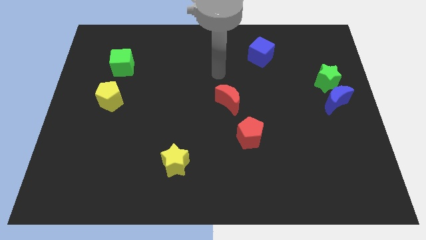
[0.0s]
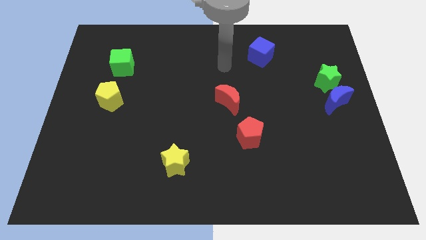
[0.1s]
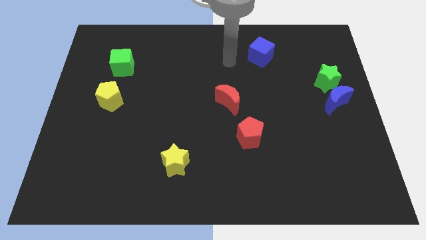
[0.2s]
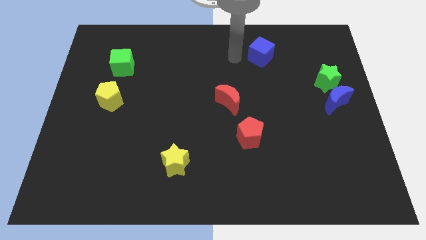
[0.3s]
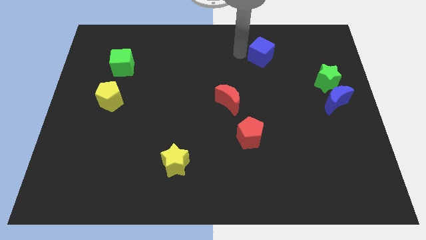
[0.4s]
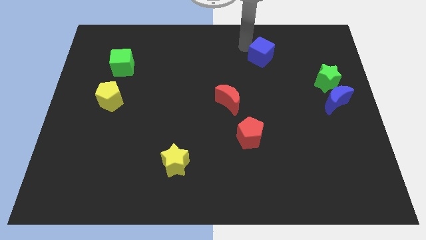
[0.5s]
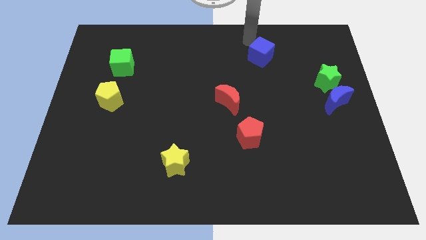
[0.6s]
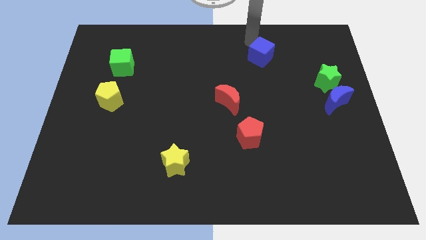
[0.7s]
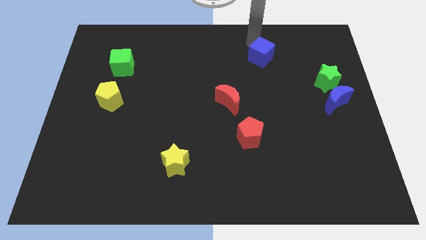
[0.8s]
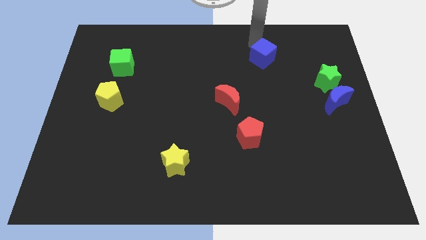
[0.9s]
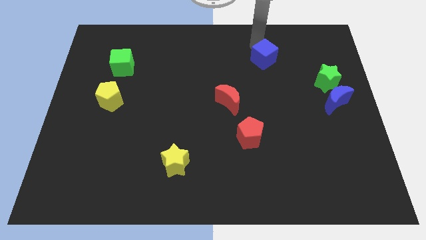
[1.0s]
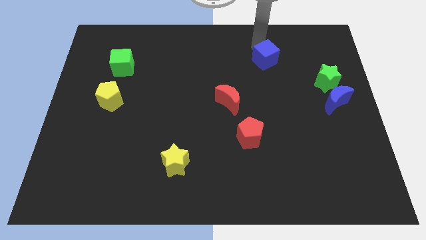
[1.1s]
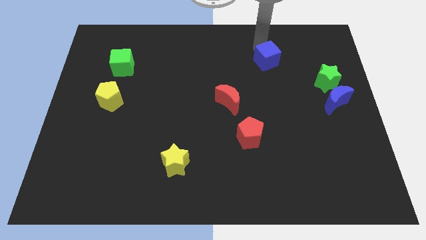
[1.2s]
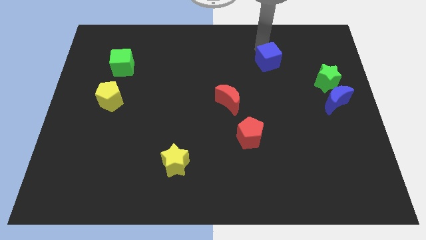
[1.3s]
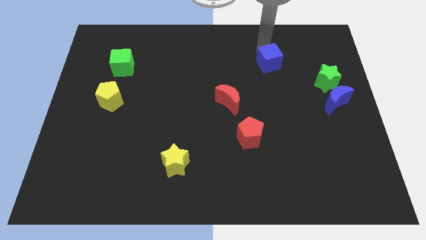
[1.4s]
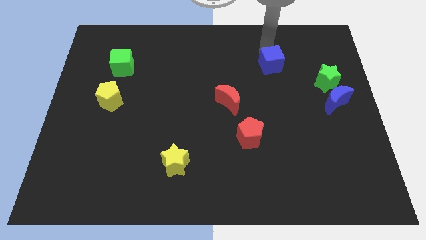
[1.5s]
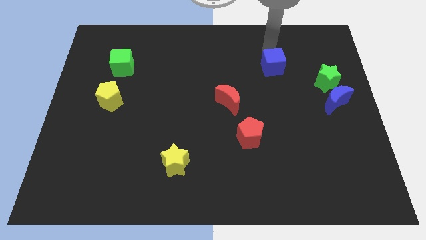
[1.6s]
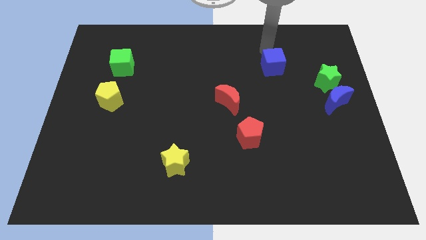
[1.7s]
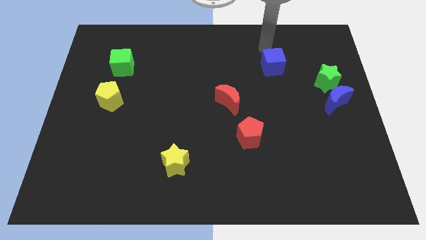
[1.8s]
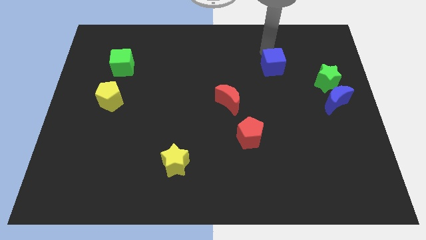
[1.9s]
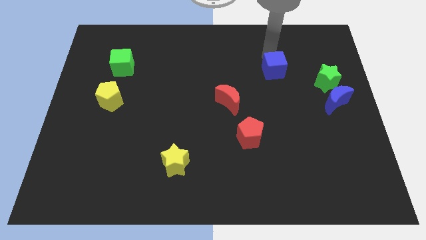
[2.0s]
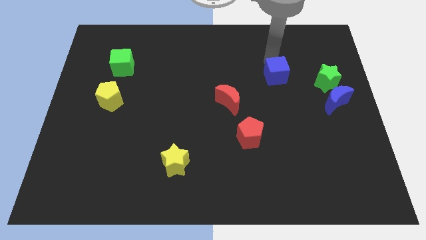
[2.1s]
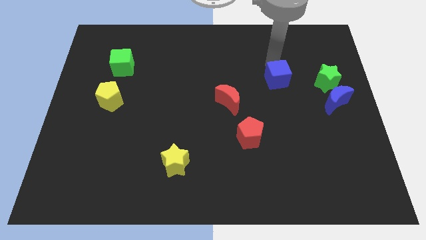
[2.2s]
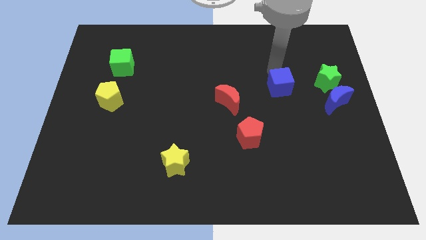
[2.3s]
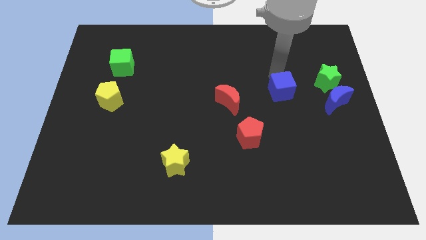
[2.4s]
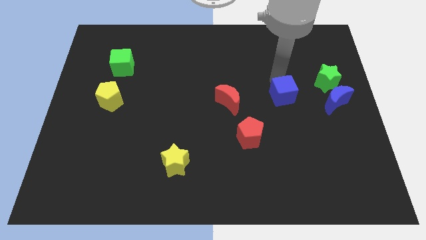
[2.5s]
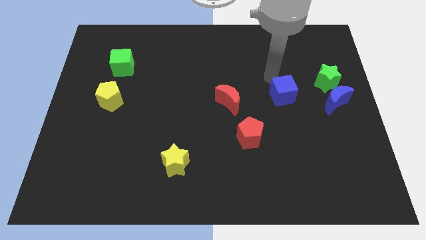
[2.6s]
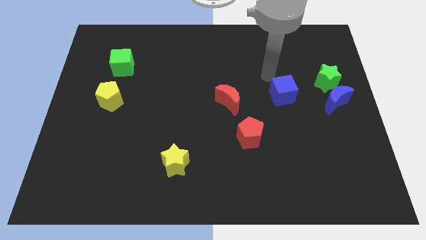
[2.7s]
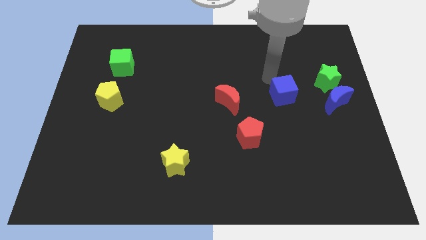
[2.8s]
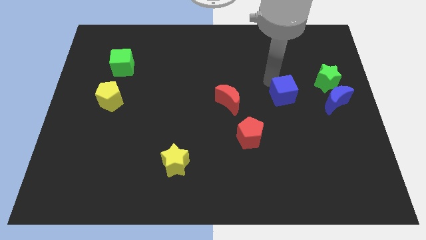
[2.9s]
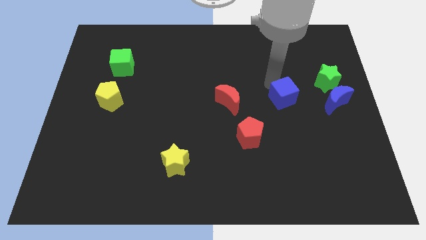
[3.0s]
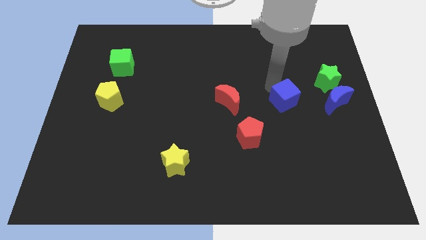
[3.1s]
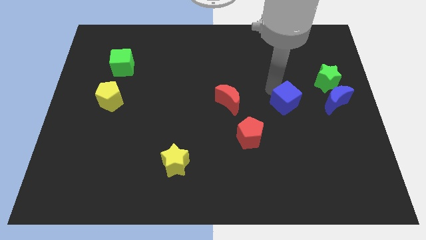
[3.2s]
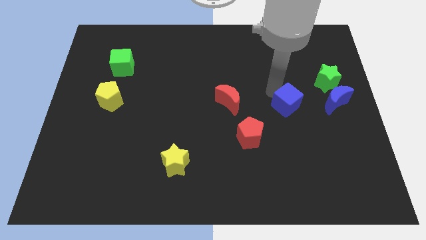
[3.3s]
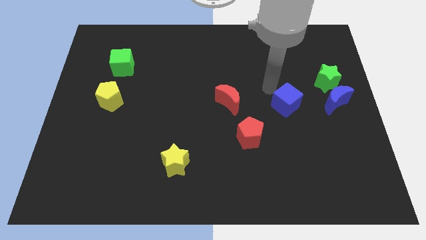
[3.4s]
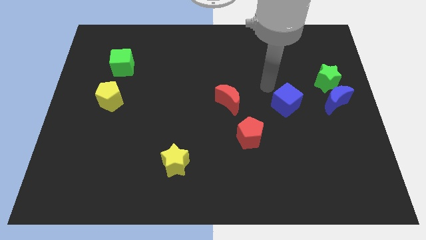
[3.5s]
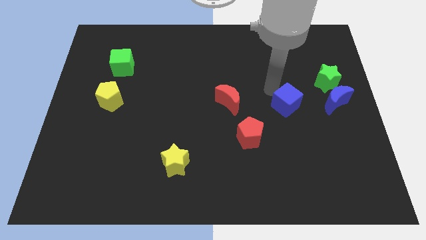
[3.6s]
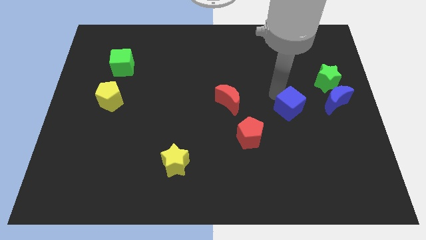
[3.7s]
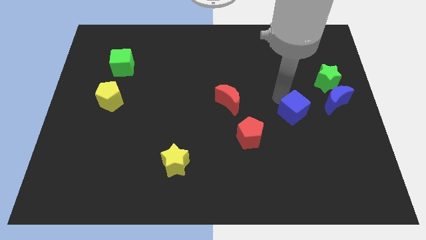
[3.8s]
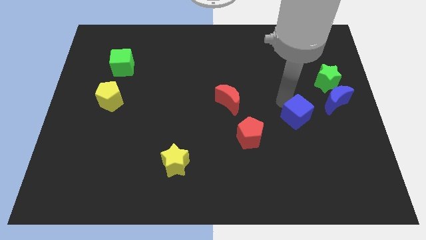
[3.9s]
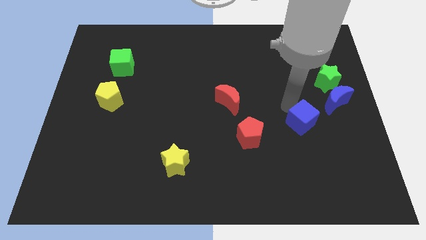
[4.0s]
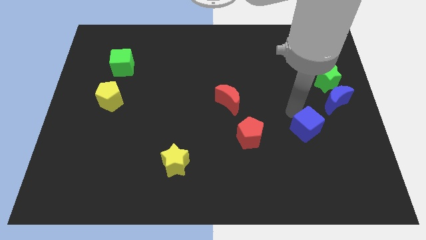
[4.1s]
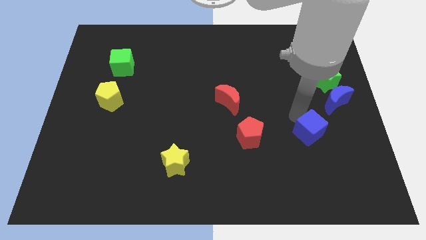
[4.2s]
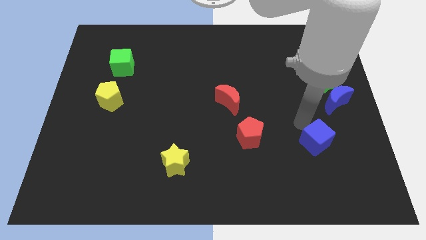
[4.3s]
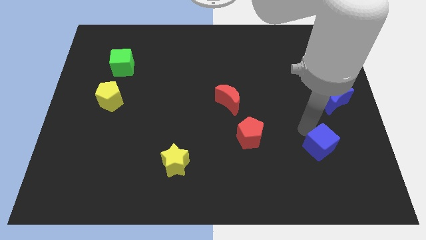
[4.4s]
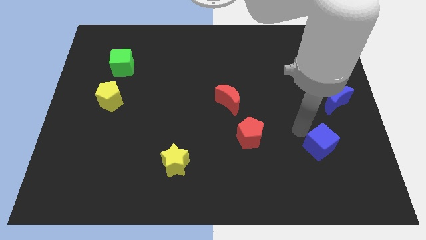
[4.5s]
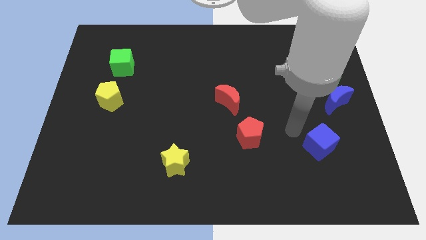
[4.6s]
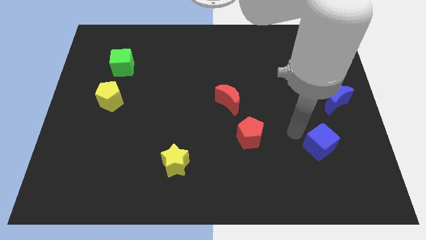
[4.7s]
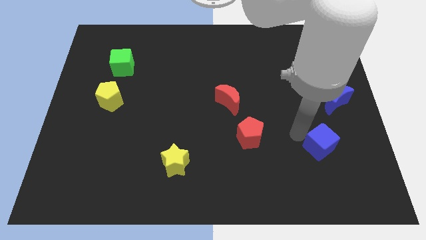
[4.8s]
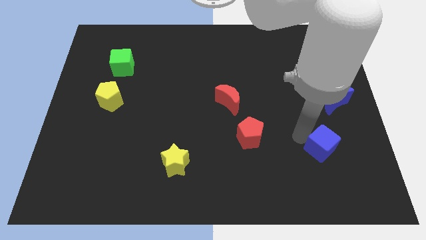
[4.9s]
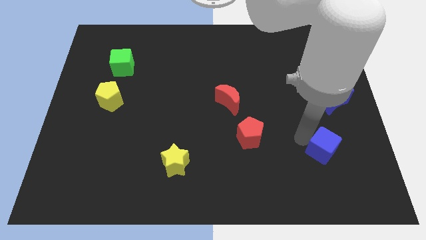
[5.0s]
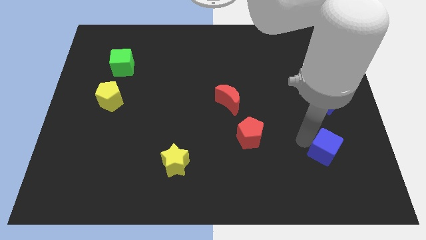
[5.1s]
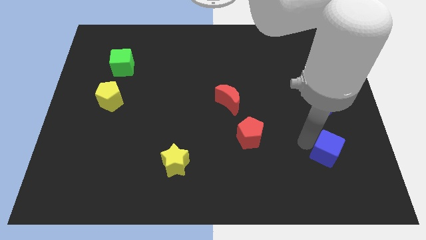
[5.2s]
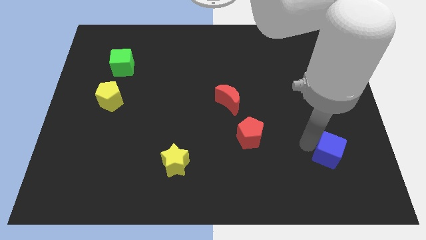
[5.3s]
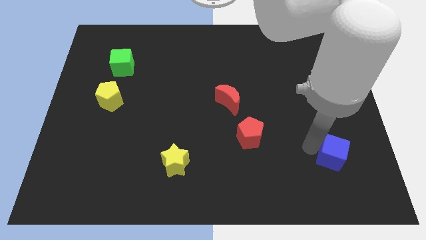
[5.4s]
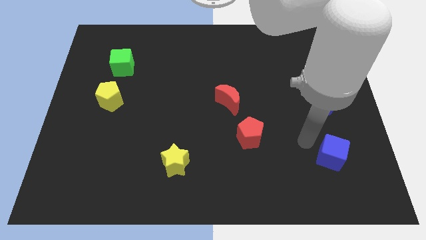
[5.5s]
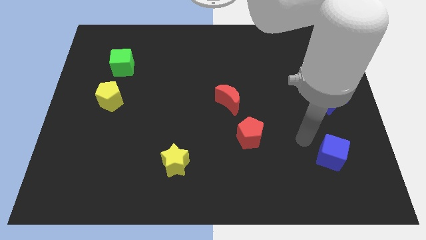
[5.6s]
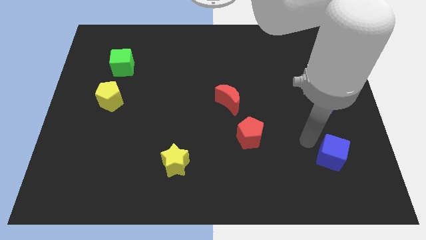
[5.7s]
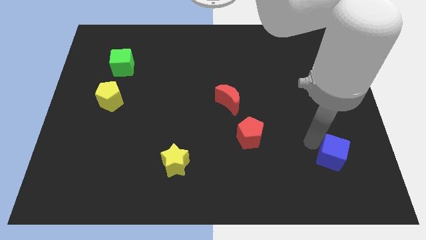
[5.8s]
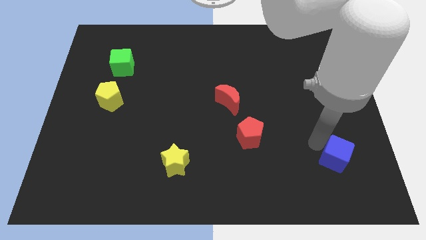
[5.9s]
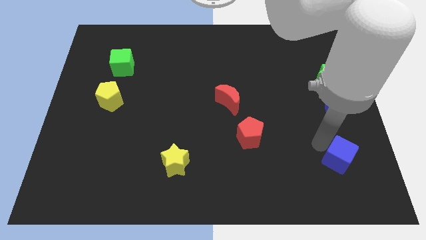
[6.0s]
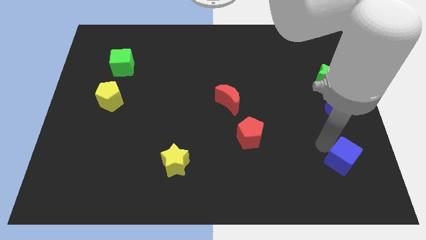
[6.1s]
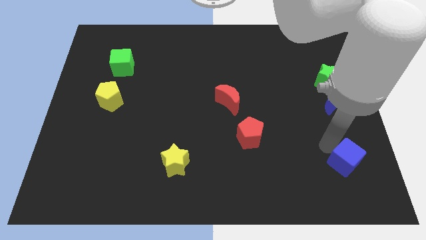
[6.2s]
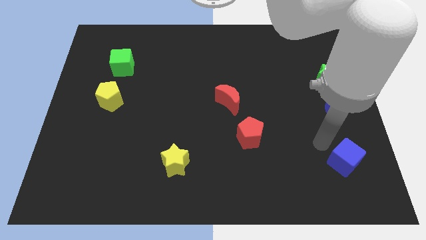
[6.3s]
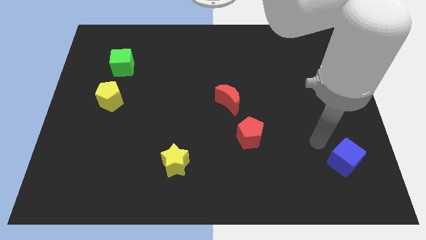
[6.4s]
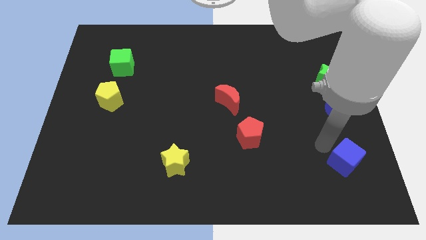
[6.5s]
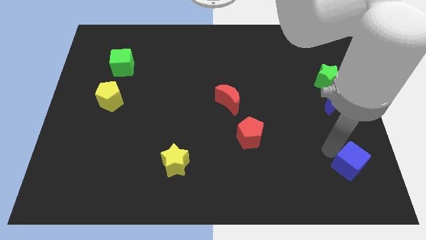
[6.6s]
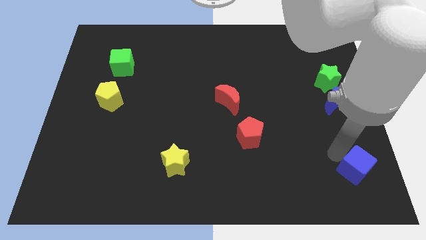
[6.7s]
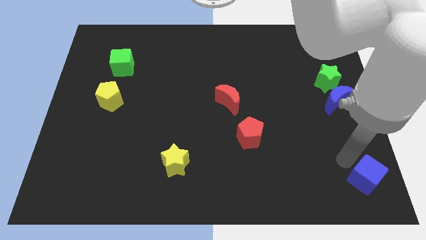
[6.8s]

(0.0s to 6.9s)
put the blue cube to the lower right corner

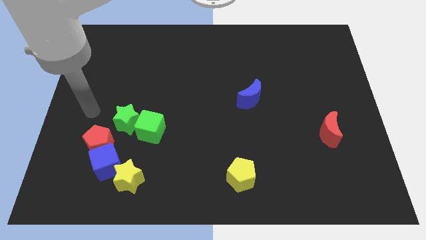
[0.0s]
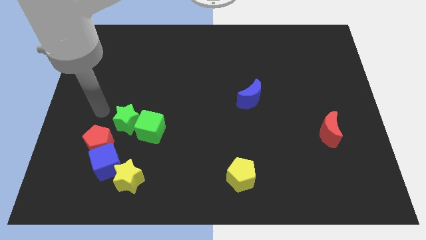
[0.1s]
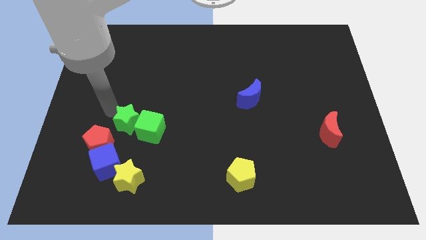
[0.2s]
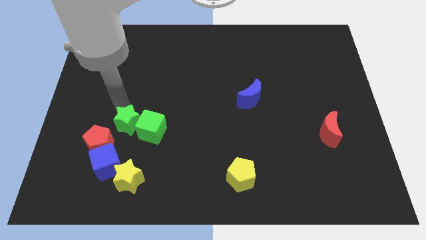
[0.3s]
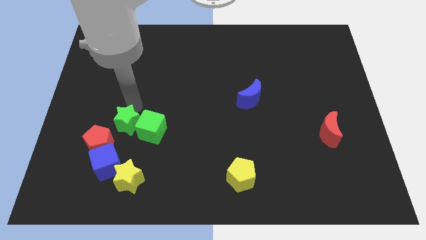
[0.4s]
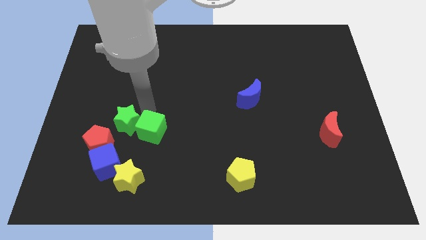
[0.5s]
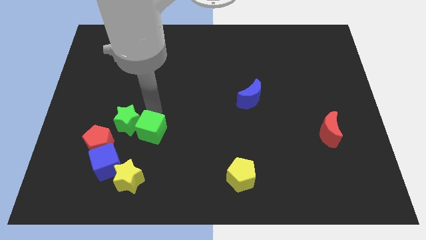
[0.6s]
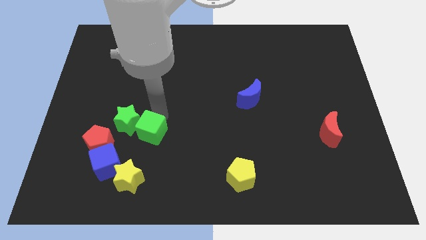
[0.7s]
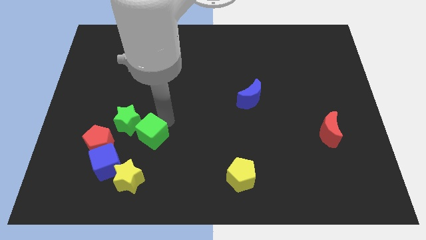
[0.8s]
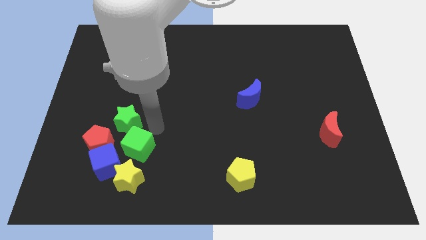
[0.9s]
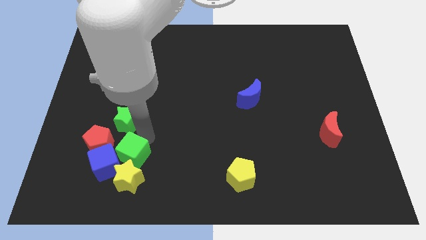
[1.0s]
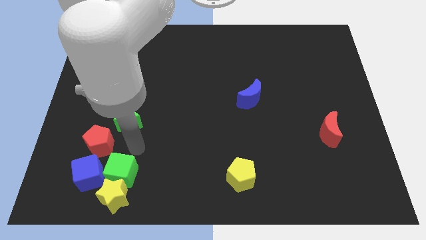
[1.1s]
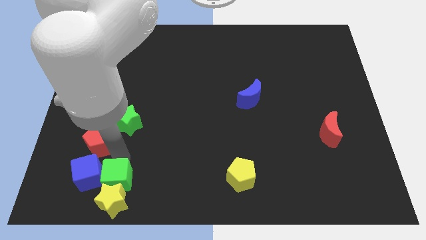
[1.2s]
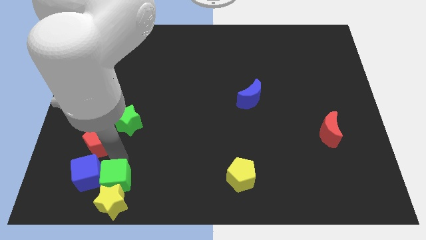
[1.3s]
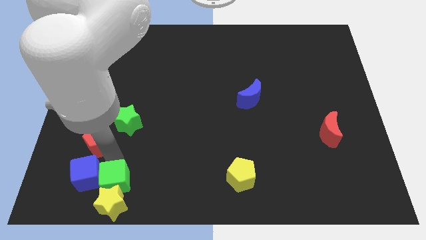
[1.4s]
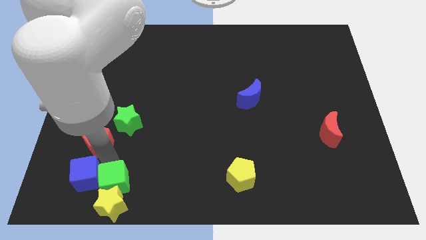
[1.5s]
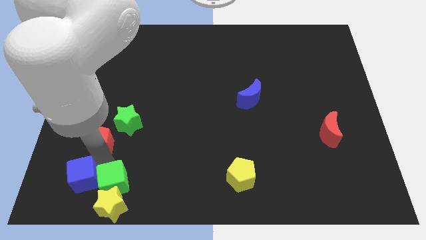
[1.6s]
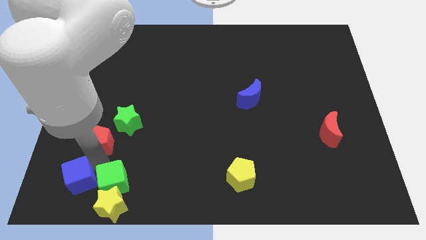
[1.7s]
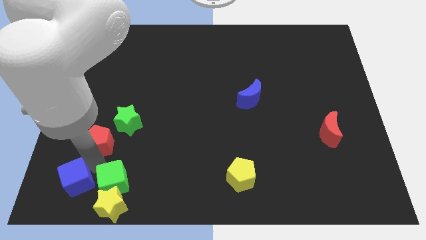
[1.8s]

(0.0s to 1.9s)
push the blue cube to the bottom left
